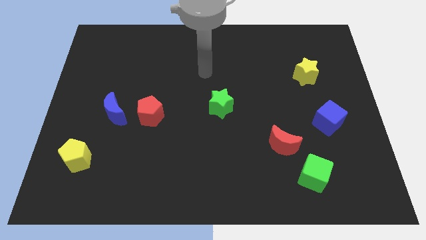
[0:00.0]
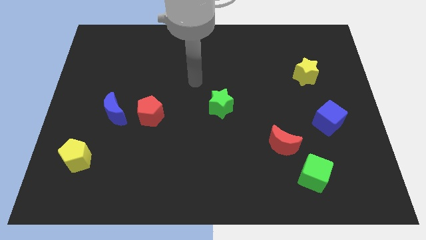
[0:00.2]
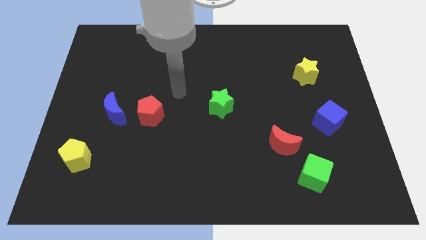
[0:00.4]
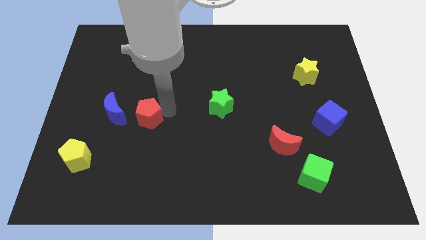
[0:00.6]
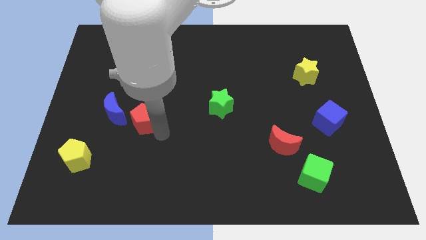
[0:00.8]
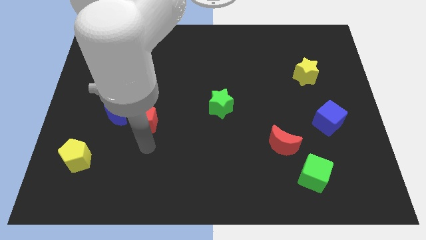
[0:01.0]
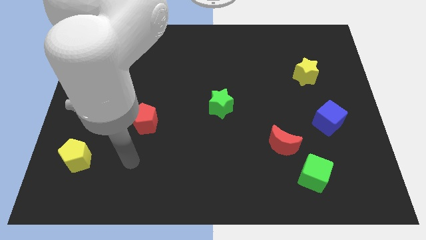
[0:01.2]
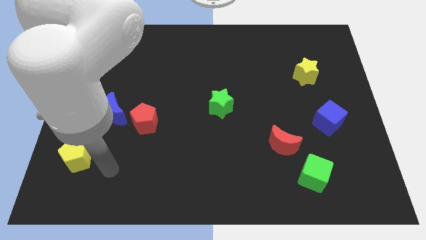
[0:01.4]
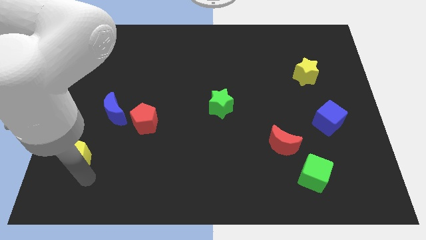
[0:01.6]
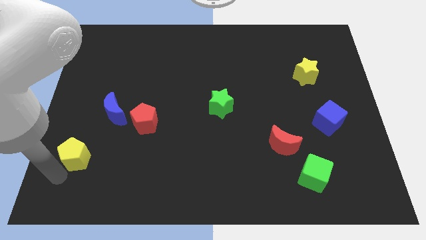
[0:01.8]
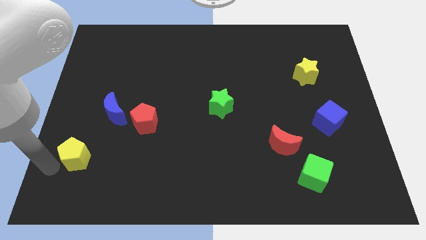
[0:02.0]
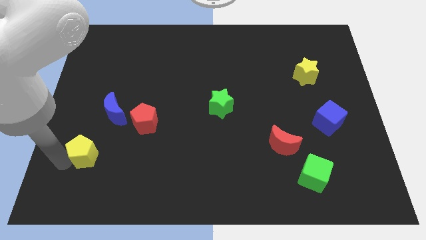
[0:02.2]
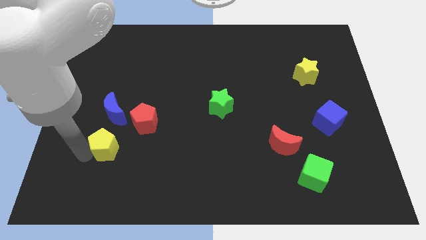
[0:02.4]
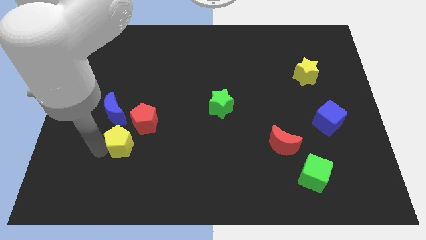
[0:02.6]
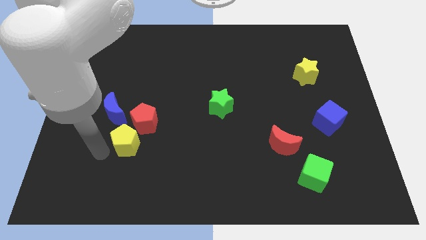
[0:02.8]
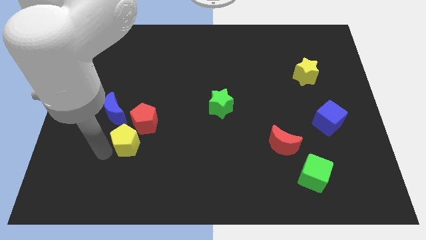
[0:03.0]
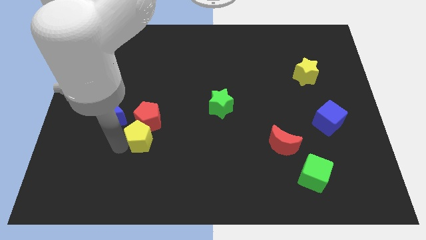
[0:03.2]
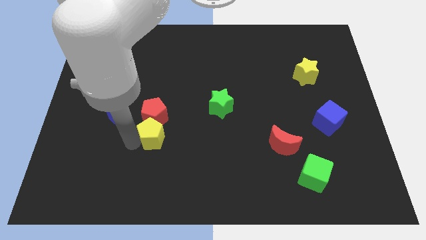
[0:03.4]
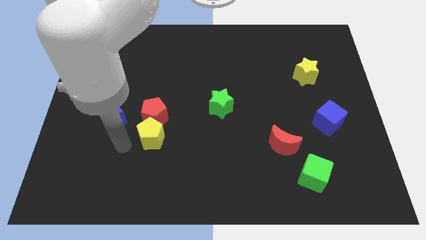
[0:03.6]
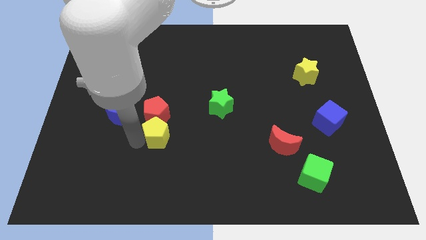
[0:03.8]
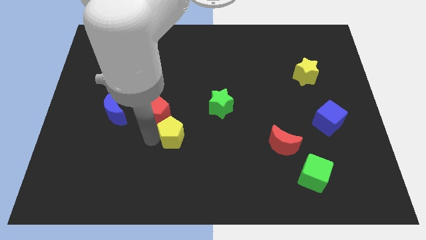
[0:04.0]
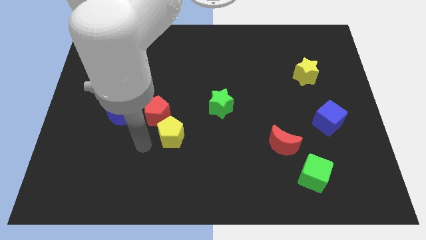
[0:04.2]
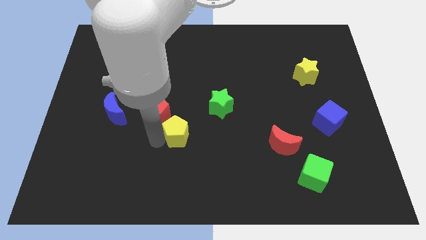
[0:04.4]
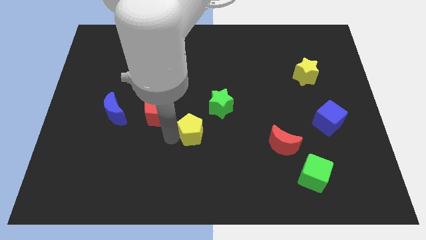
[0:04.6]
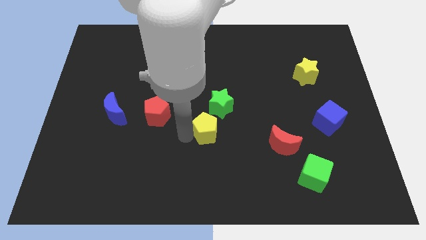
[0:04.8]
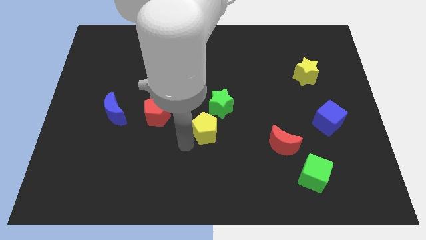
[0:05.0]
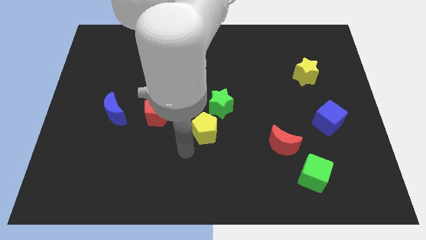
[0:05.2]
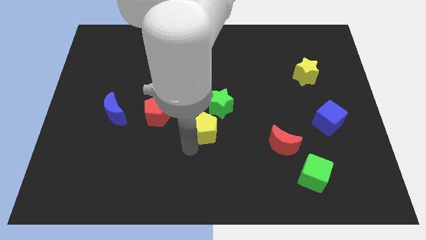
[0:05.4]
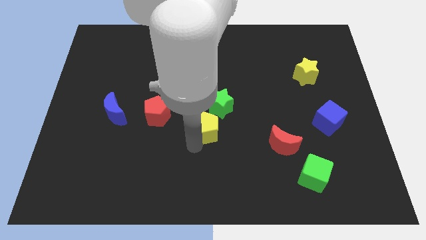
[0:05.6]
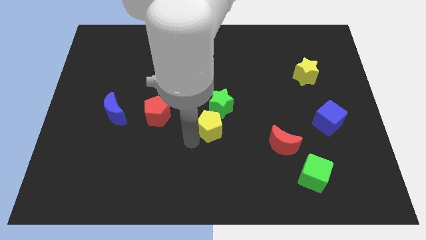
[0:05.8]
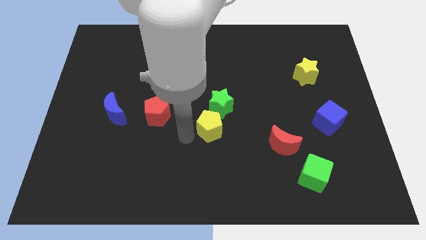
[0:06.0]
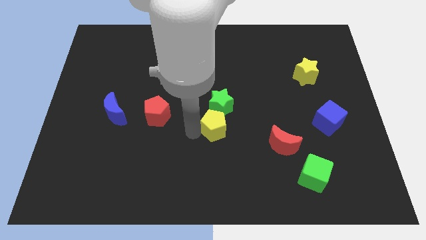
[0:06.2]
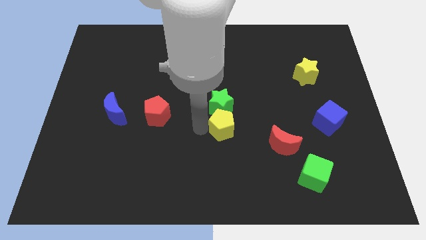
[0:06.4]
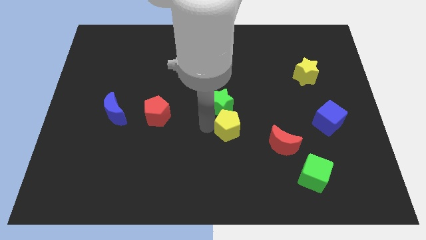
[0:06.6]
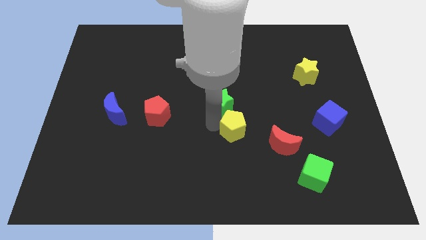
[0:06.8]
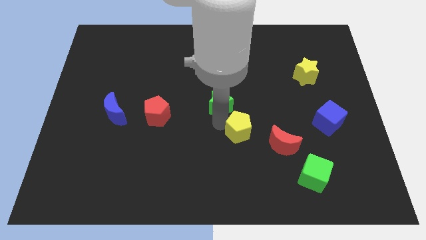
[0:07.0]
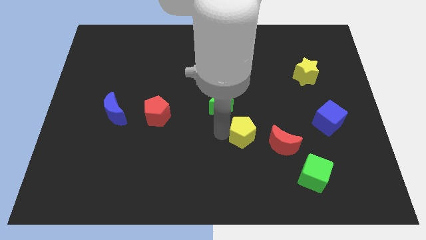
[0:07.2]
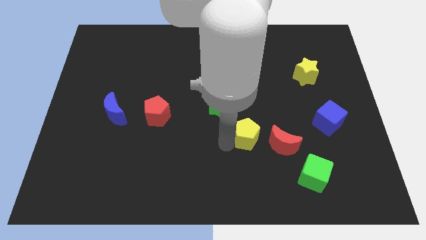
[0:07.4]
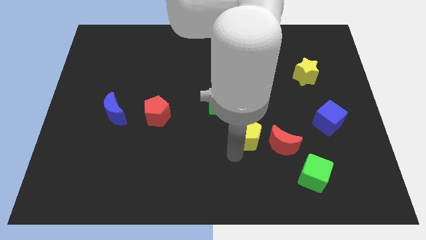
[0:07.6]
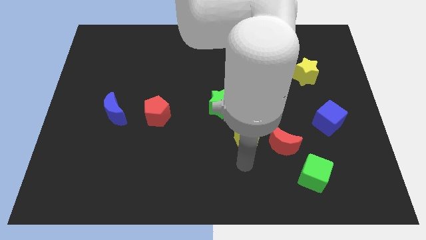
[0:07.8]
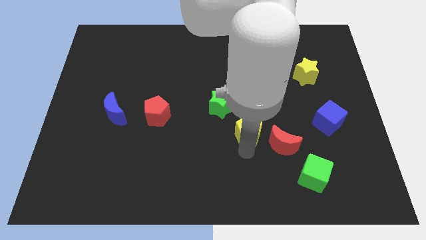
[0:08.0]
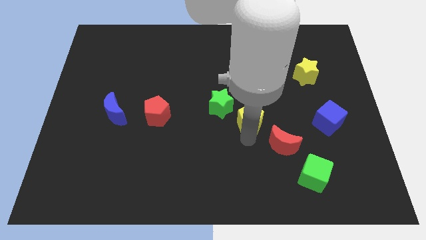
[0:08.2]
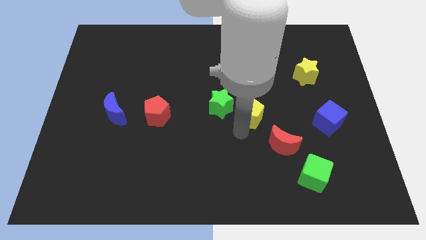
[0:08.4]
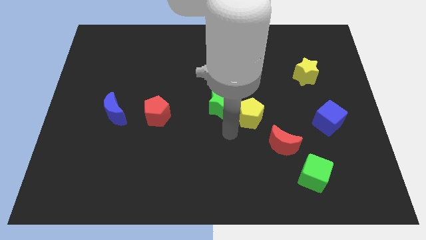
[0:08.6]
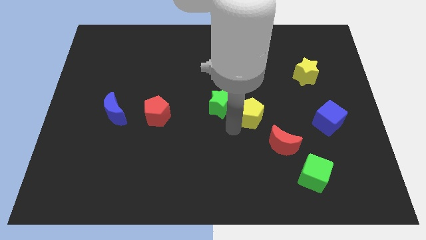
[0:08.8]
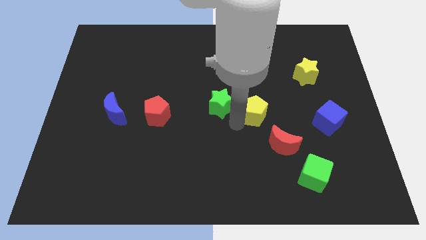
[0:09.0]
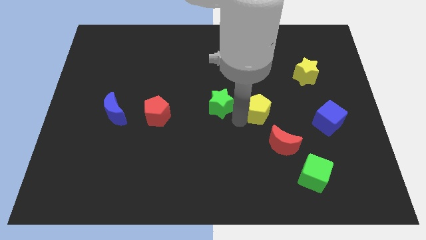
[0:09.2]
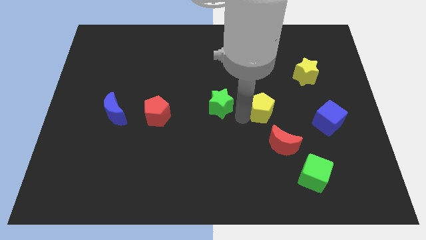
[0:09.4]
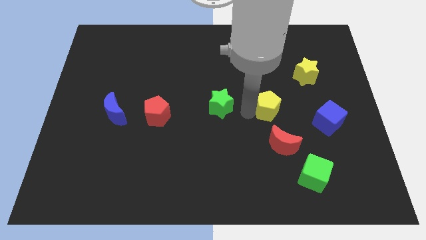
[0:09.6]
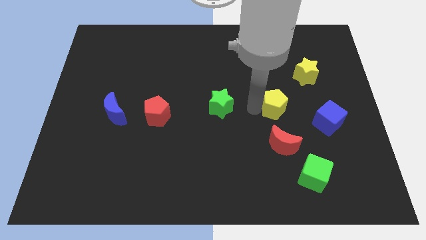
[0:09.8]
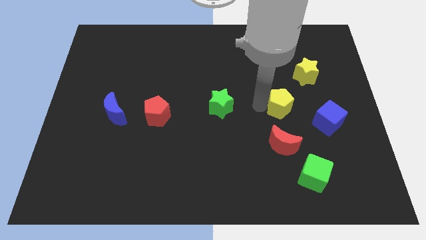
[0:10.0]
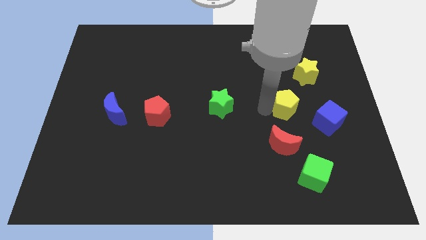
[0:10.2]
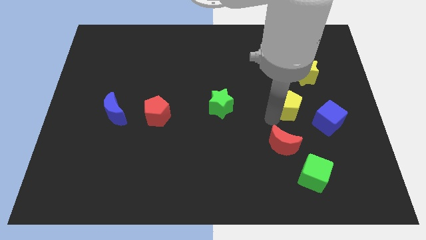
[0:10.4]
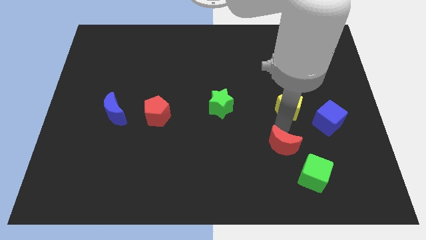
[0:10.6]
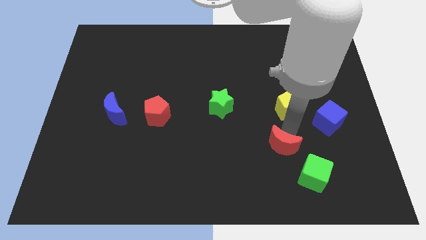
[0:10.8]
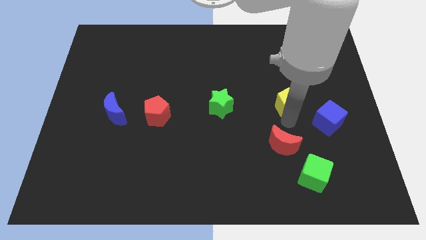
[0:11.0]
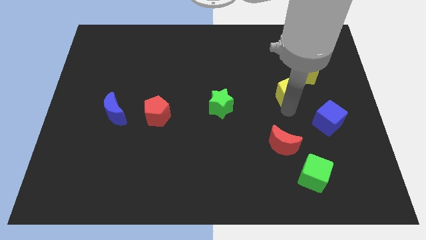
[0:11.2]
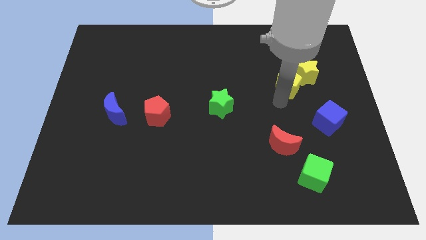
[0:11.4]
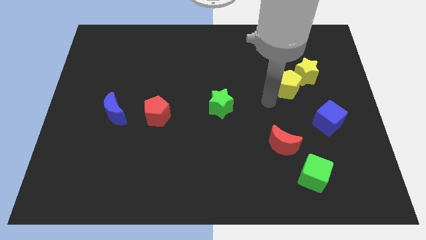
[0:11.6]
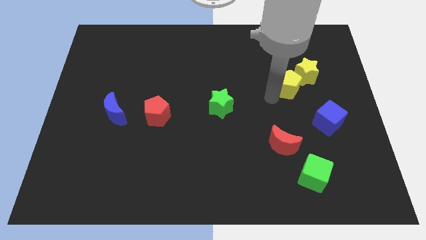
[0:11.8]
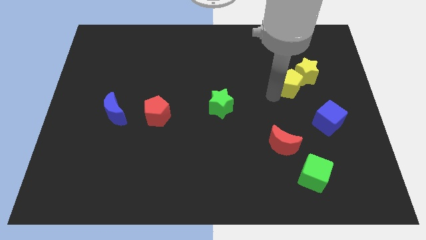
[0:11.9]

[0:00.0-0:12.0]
put the yellow pentagon to the yellow star

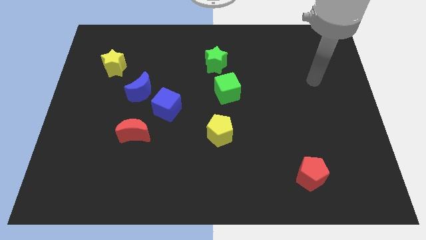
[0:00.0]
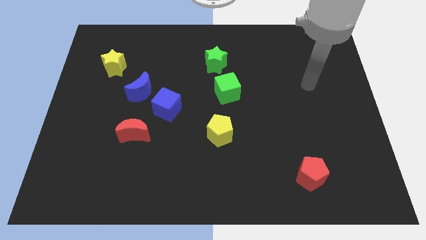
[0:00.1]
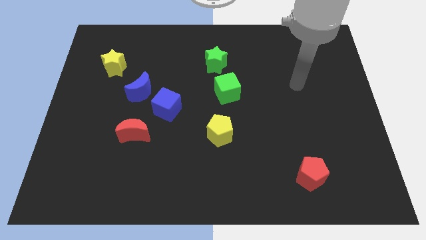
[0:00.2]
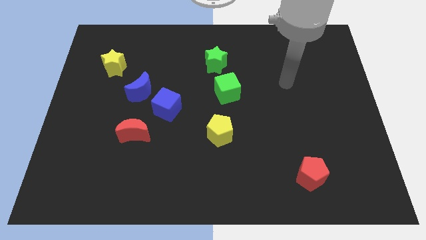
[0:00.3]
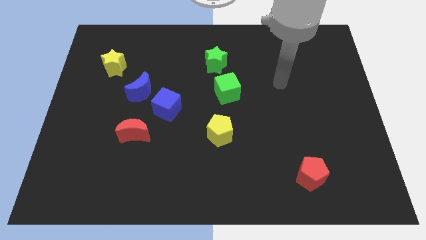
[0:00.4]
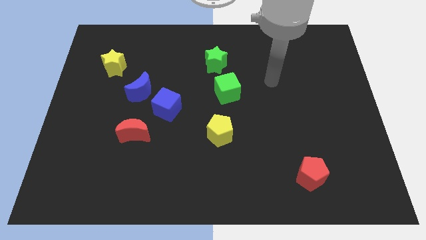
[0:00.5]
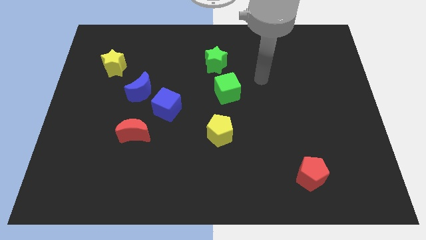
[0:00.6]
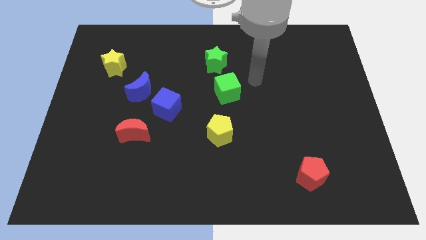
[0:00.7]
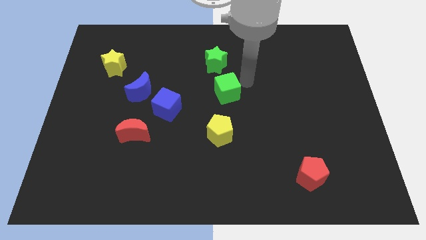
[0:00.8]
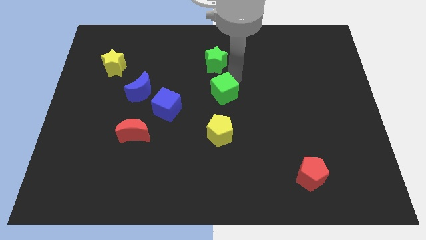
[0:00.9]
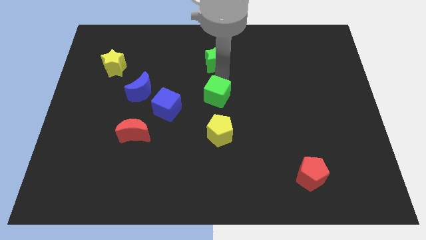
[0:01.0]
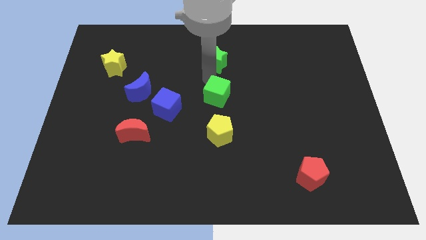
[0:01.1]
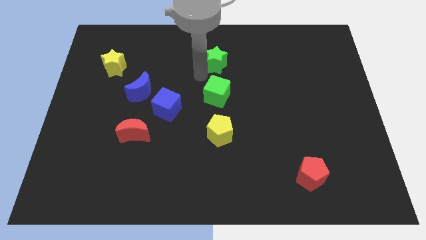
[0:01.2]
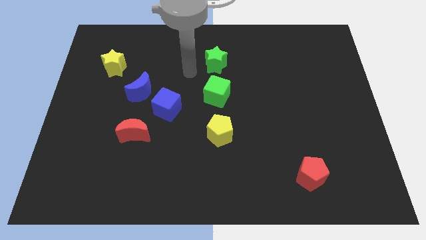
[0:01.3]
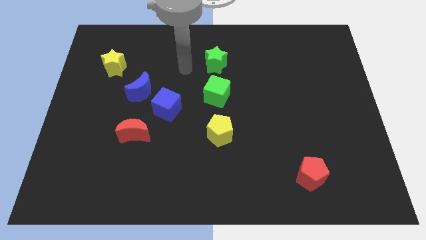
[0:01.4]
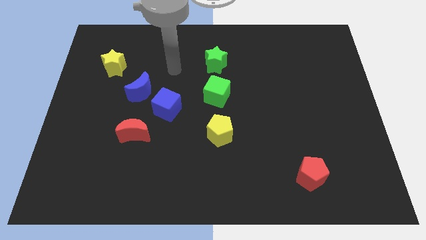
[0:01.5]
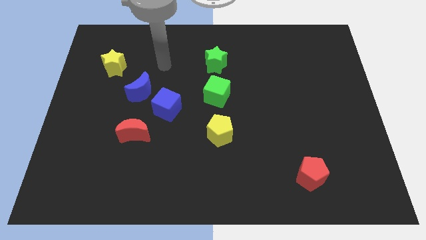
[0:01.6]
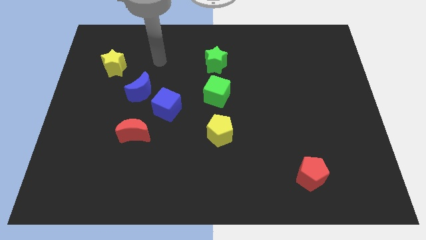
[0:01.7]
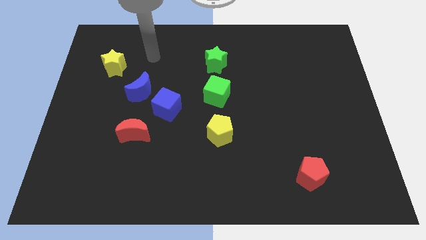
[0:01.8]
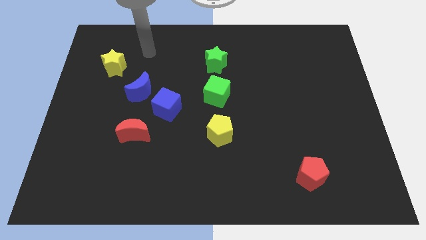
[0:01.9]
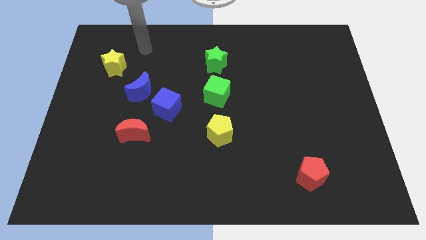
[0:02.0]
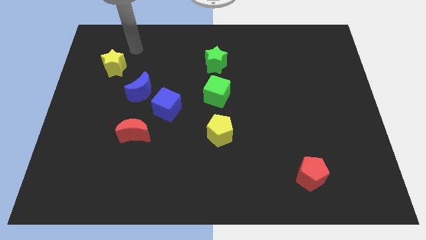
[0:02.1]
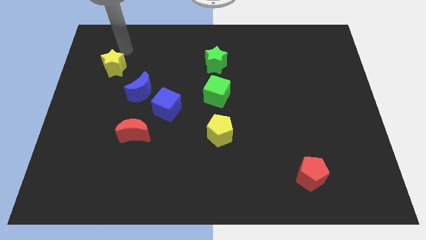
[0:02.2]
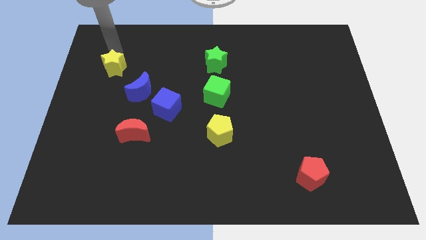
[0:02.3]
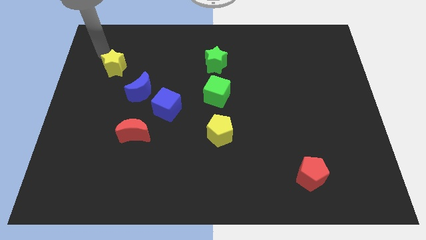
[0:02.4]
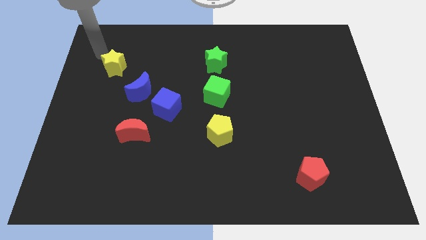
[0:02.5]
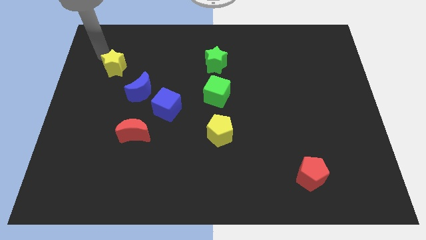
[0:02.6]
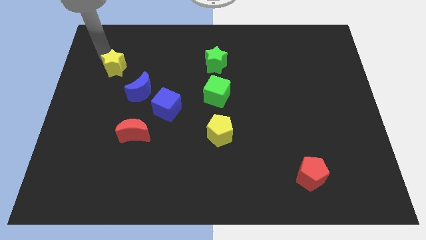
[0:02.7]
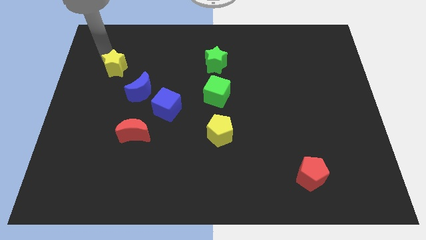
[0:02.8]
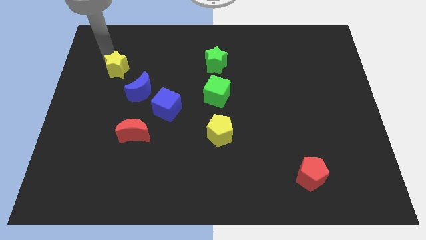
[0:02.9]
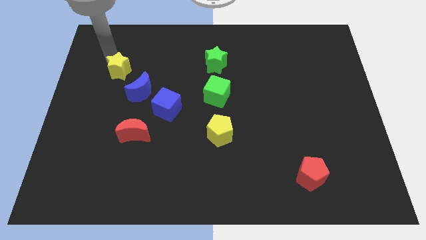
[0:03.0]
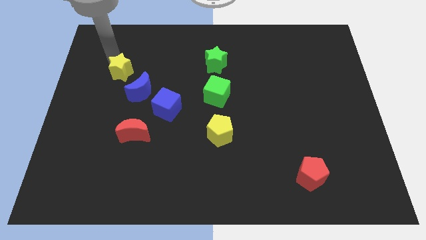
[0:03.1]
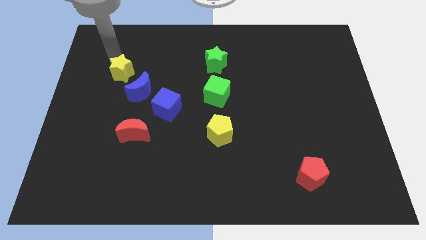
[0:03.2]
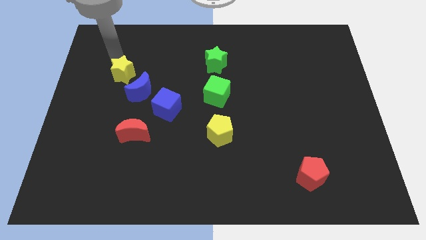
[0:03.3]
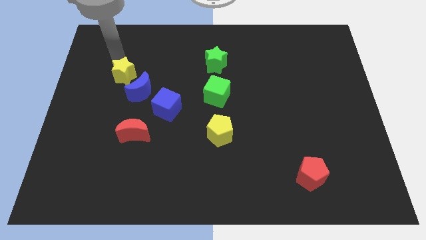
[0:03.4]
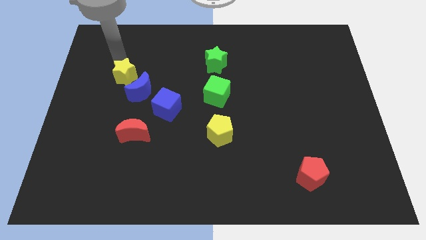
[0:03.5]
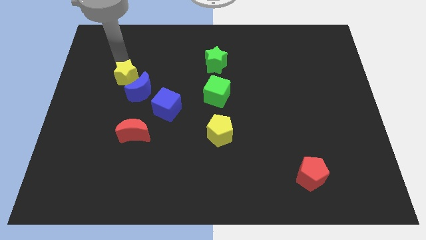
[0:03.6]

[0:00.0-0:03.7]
push the yellow star to the blue moon
